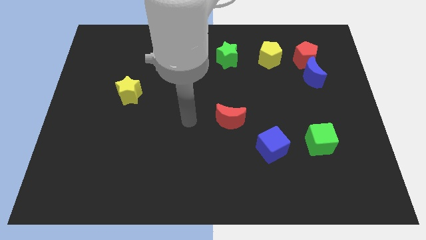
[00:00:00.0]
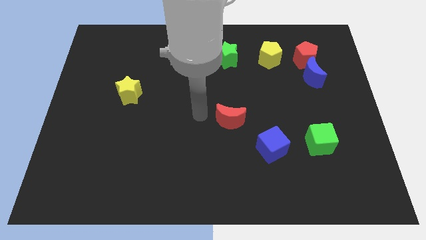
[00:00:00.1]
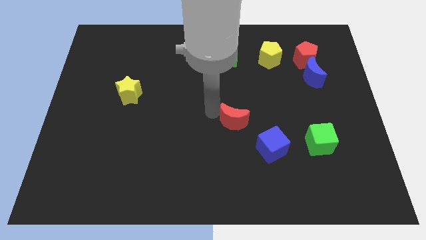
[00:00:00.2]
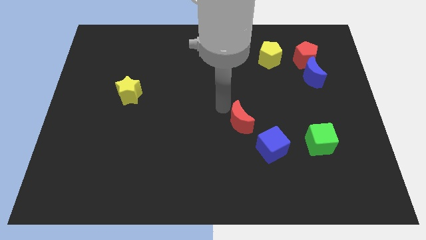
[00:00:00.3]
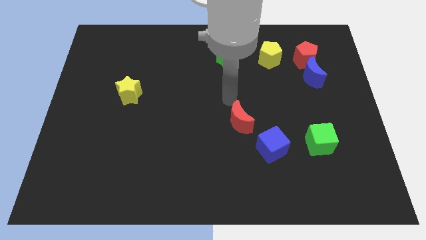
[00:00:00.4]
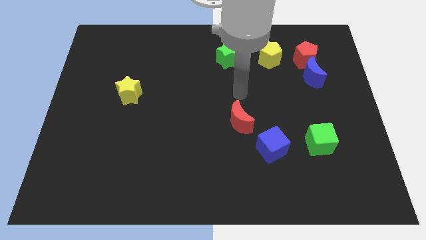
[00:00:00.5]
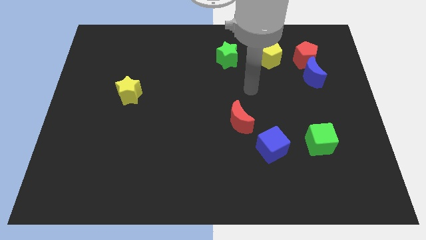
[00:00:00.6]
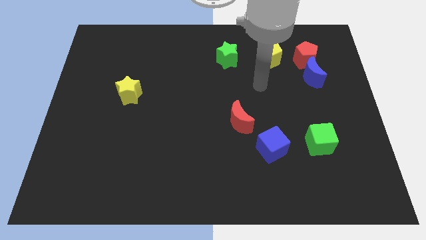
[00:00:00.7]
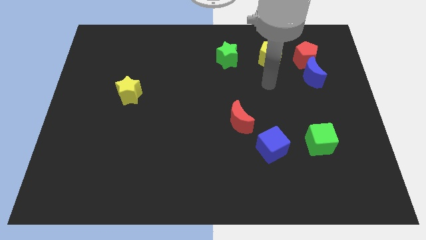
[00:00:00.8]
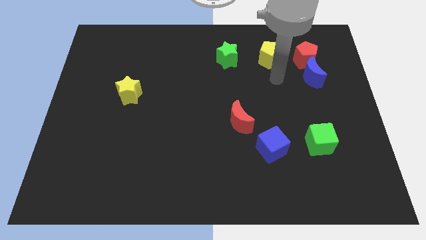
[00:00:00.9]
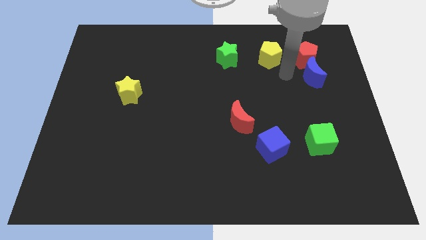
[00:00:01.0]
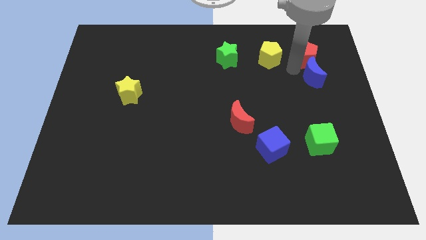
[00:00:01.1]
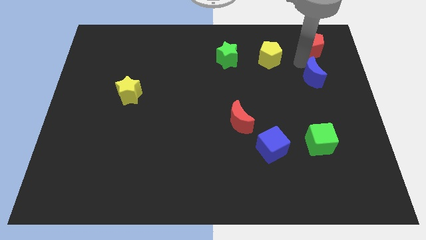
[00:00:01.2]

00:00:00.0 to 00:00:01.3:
separate the blue moon from the red pentagon

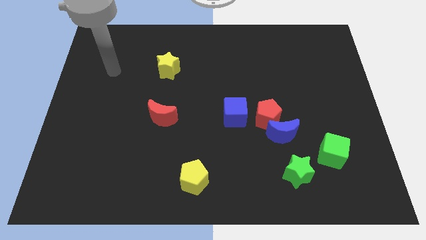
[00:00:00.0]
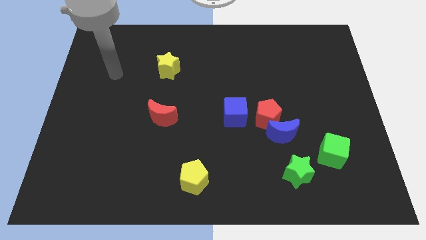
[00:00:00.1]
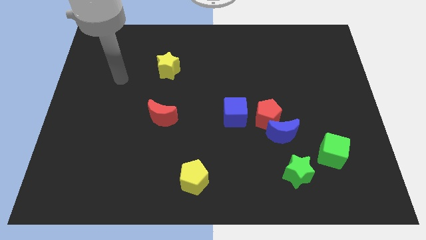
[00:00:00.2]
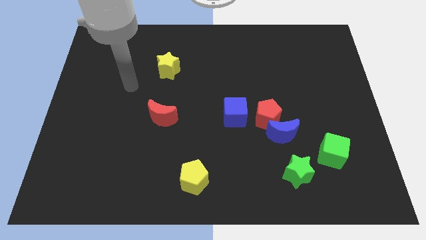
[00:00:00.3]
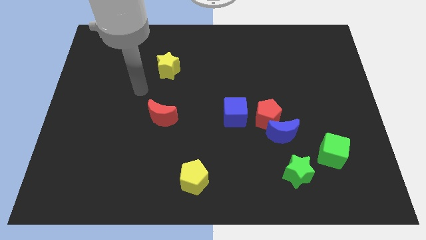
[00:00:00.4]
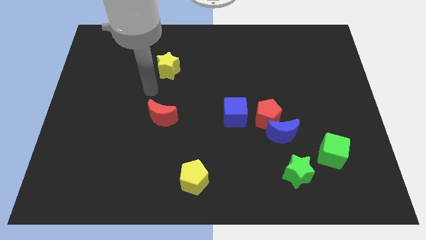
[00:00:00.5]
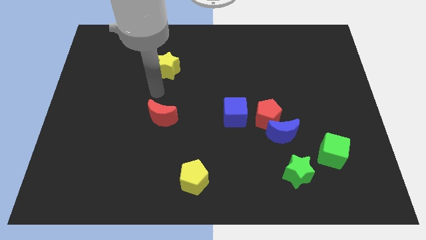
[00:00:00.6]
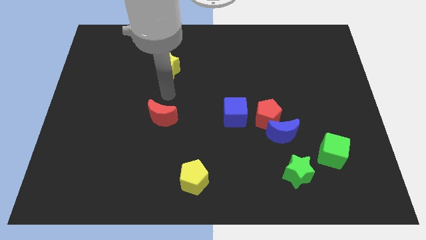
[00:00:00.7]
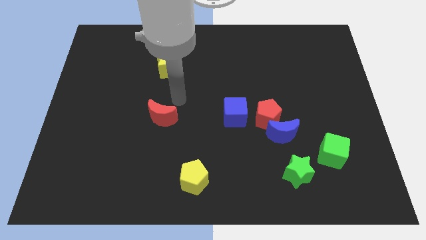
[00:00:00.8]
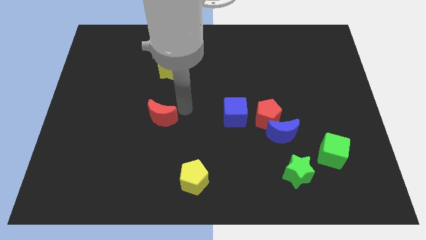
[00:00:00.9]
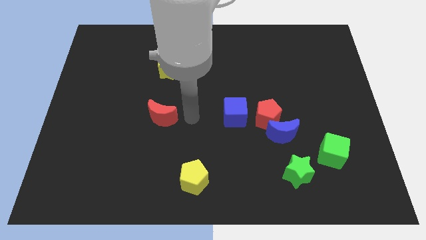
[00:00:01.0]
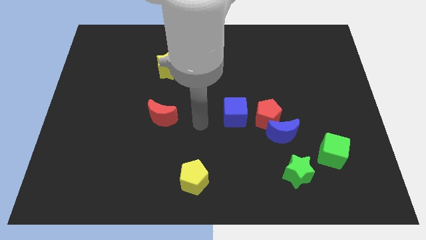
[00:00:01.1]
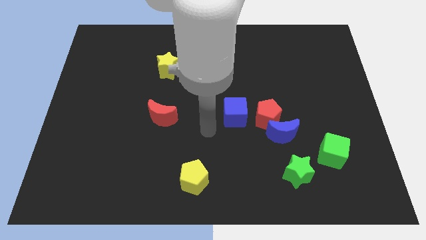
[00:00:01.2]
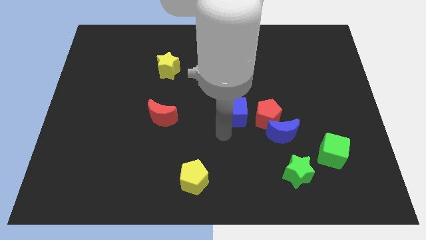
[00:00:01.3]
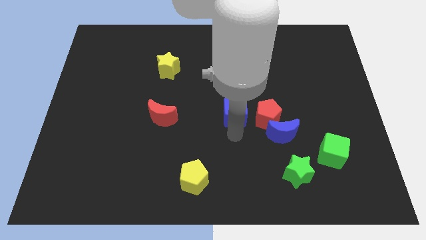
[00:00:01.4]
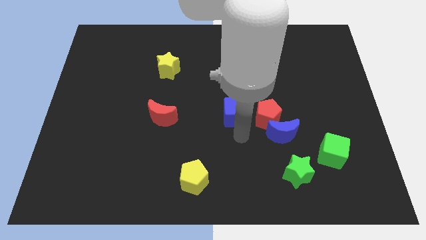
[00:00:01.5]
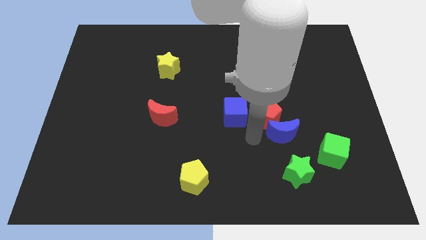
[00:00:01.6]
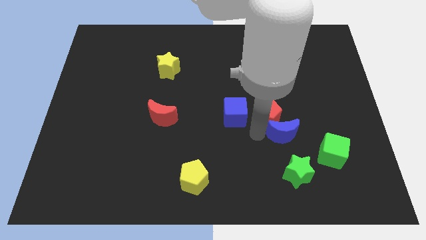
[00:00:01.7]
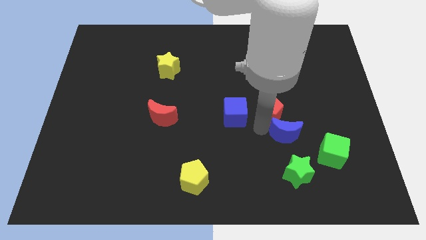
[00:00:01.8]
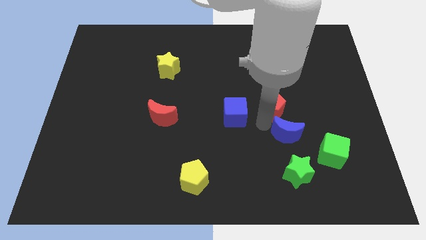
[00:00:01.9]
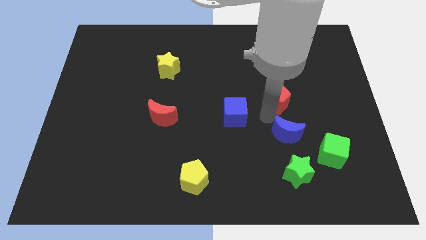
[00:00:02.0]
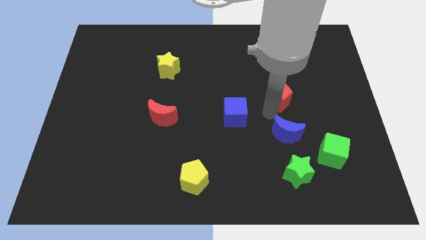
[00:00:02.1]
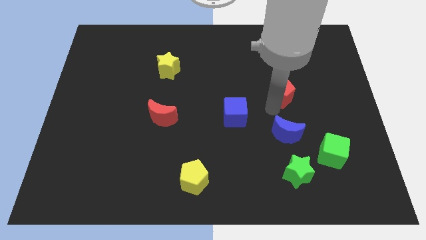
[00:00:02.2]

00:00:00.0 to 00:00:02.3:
pull the red pentagon apart from the blue moon and blue cube

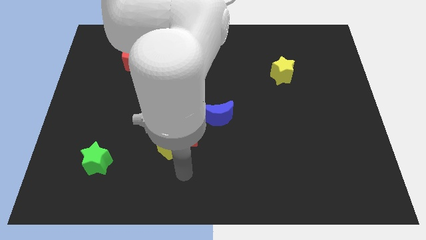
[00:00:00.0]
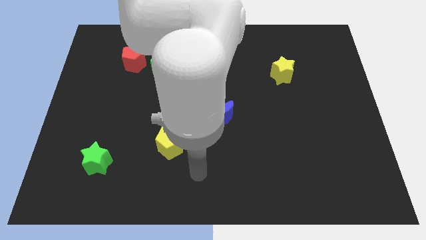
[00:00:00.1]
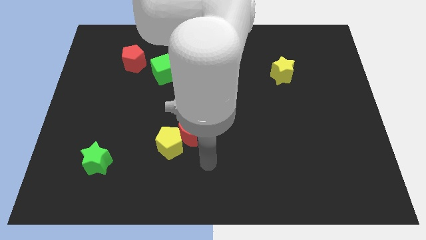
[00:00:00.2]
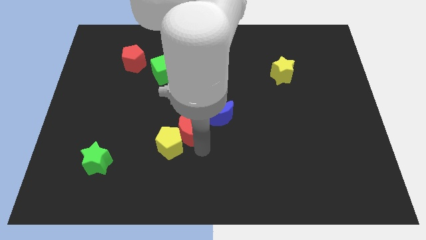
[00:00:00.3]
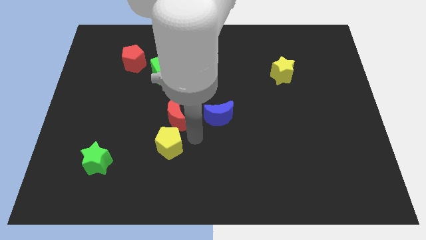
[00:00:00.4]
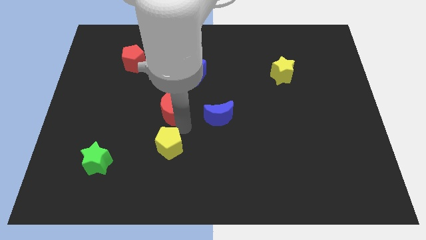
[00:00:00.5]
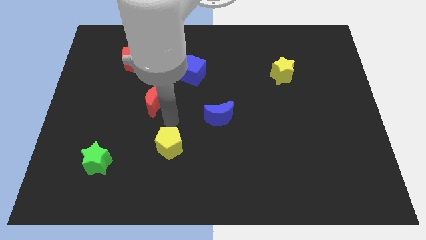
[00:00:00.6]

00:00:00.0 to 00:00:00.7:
pull the yellow pentagon apart from the red moon

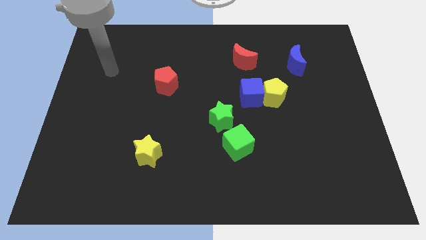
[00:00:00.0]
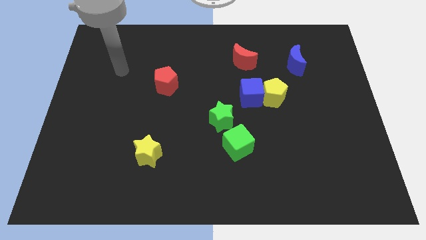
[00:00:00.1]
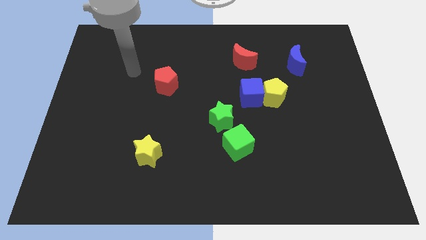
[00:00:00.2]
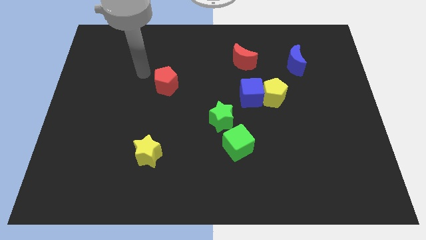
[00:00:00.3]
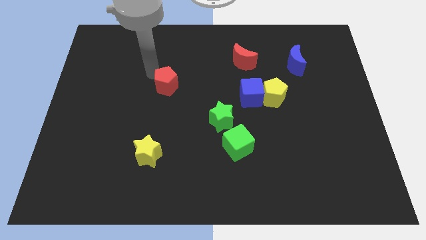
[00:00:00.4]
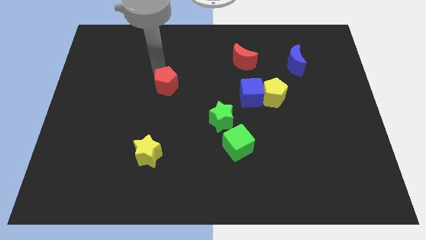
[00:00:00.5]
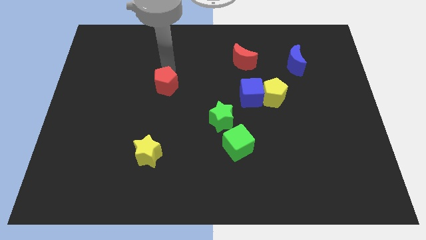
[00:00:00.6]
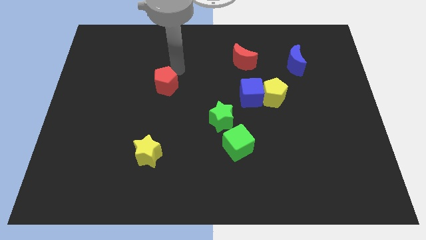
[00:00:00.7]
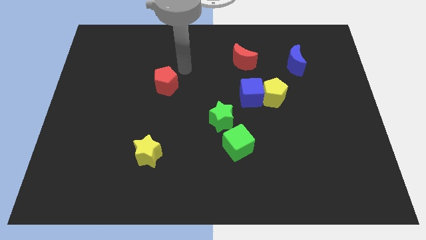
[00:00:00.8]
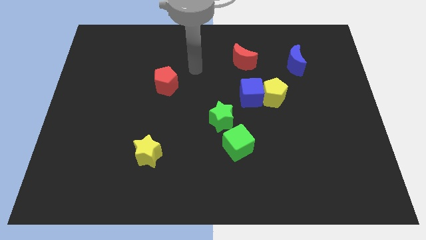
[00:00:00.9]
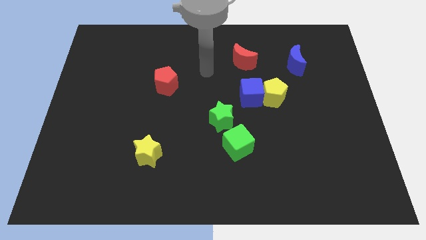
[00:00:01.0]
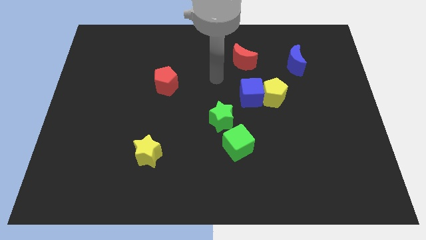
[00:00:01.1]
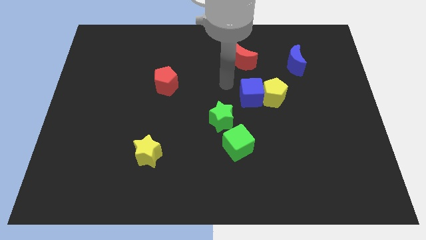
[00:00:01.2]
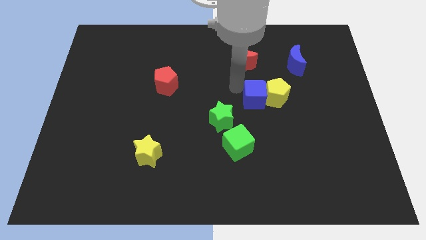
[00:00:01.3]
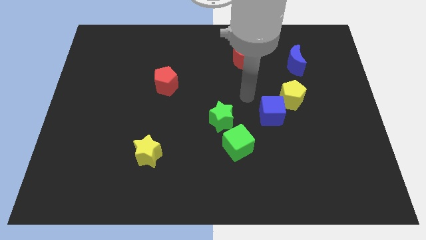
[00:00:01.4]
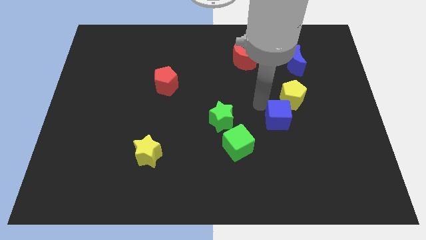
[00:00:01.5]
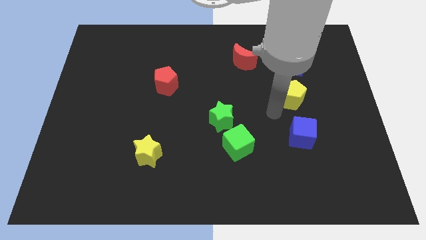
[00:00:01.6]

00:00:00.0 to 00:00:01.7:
separate the yellow pentagon from the blue cube

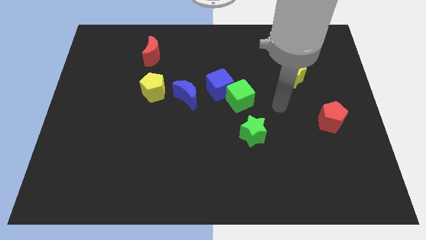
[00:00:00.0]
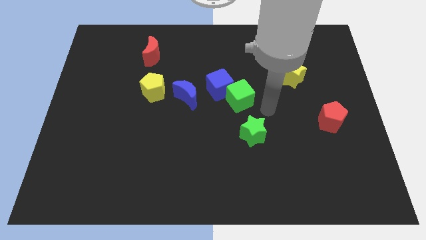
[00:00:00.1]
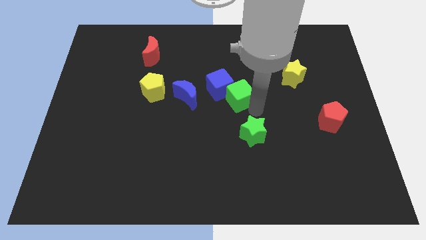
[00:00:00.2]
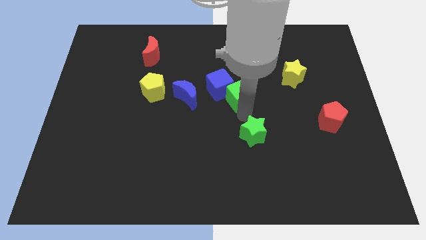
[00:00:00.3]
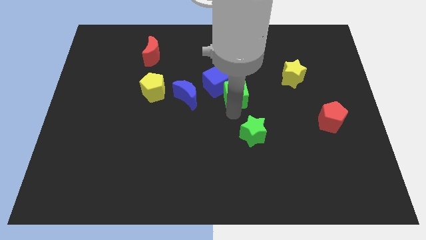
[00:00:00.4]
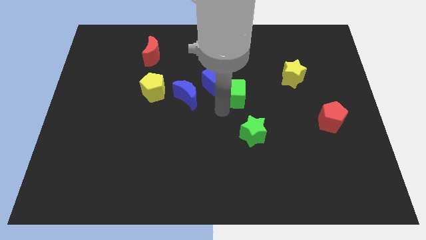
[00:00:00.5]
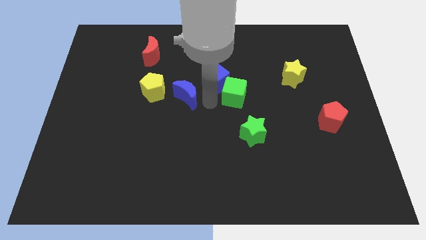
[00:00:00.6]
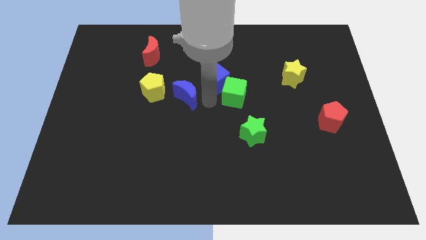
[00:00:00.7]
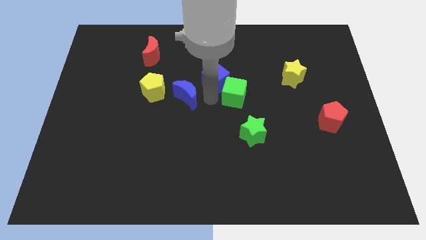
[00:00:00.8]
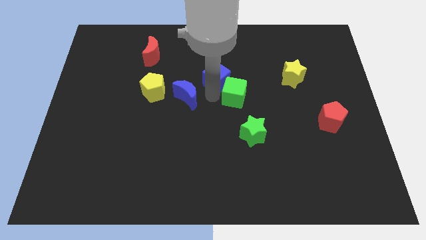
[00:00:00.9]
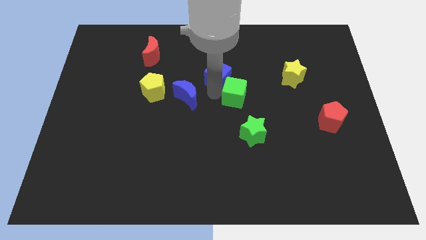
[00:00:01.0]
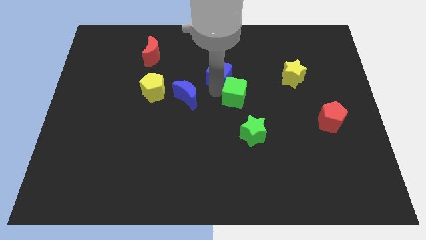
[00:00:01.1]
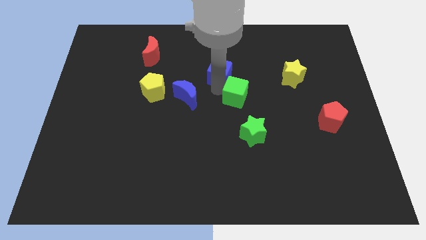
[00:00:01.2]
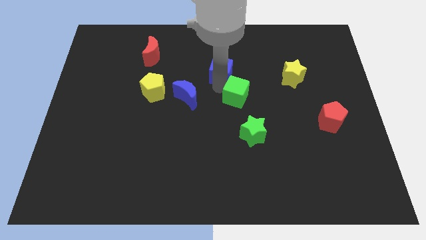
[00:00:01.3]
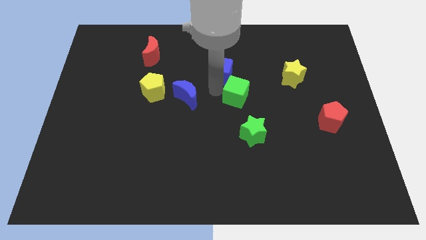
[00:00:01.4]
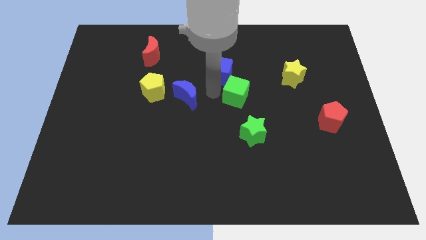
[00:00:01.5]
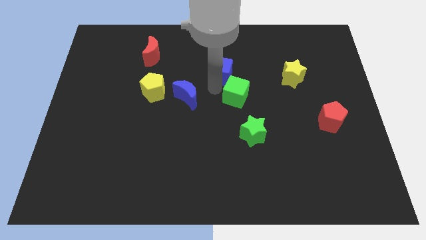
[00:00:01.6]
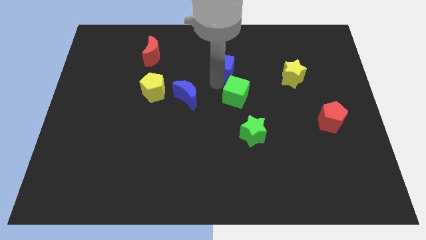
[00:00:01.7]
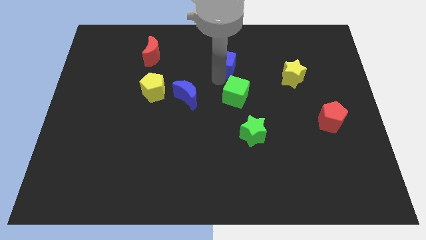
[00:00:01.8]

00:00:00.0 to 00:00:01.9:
separate the blue cube from the green cube and blue moon

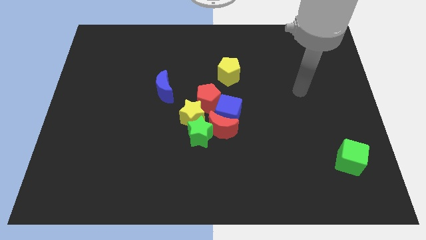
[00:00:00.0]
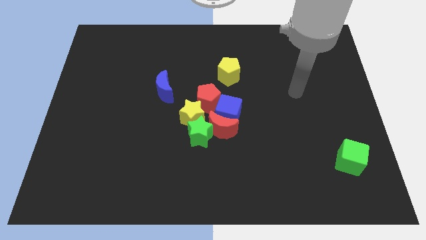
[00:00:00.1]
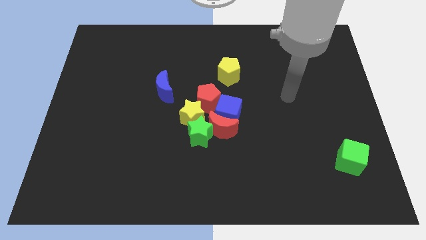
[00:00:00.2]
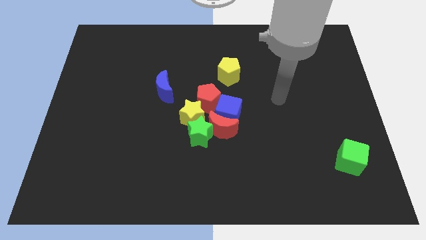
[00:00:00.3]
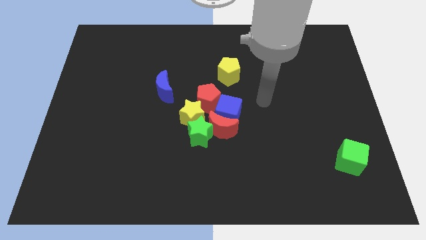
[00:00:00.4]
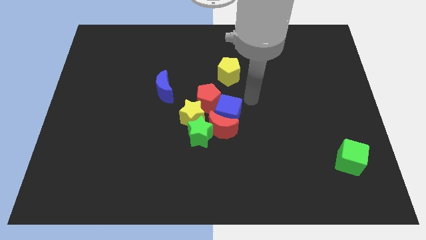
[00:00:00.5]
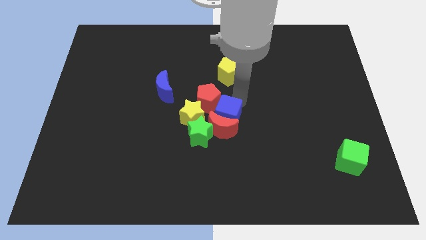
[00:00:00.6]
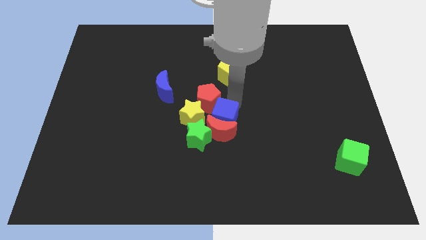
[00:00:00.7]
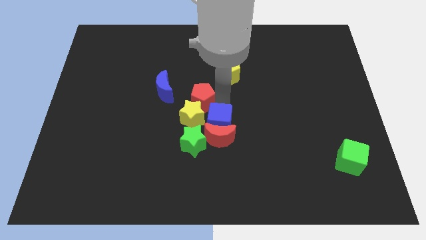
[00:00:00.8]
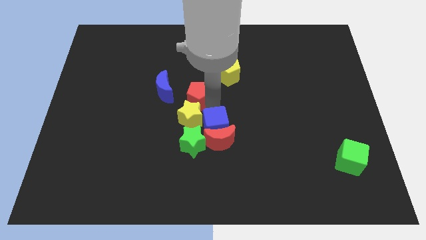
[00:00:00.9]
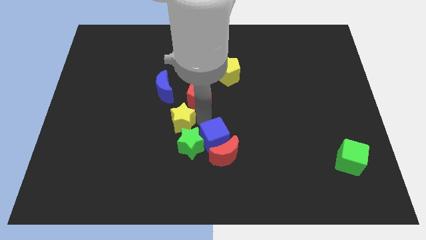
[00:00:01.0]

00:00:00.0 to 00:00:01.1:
pull the red moon apart from the group

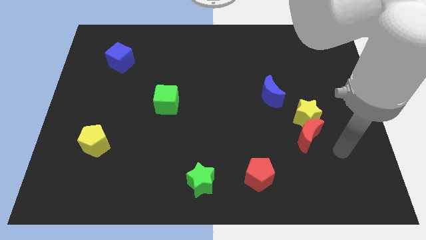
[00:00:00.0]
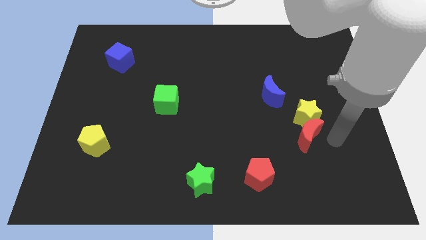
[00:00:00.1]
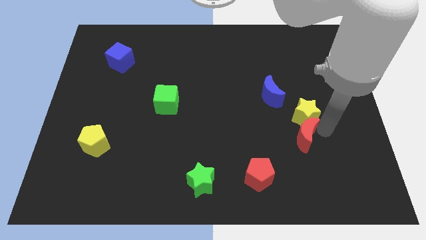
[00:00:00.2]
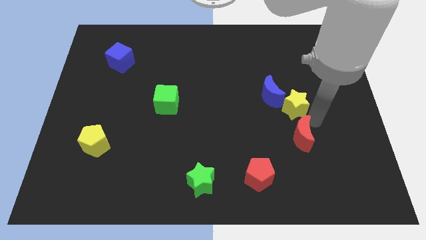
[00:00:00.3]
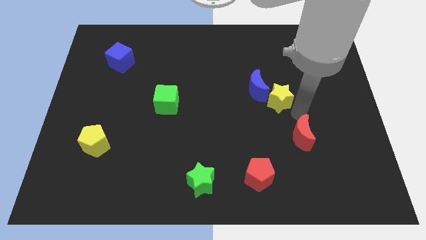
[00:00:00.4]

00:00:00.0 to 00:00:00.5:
pull the red moon apart from the yellow star
